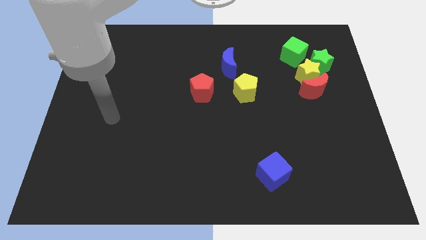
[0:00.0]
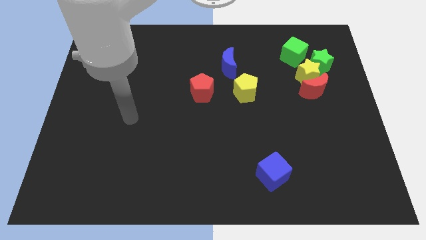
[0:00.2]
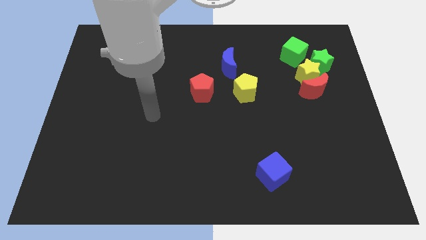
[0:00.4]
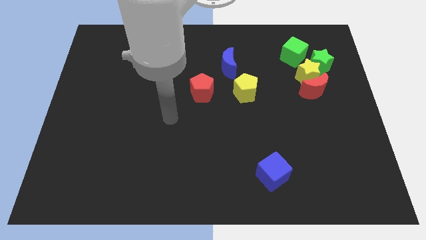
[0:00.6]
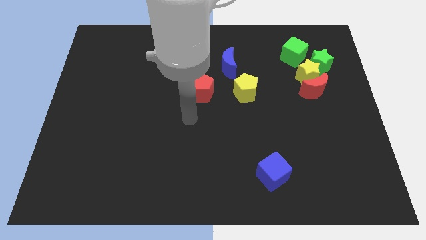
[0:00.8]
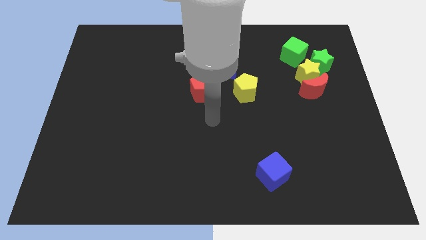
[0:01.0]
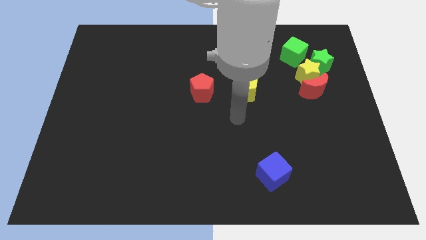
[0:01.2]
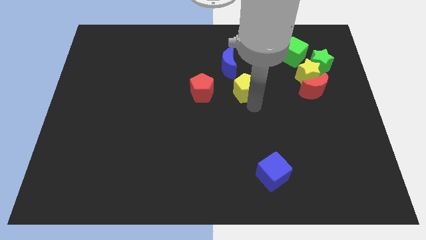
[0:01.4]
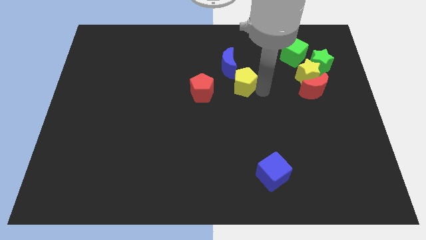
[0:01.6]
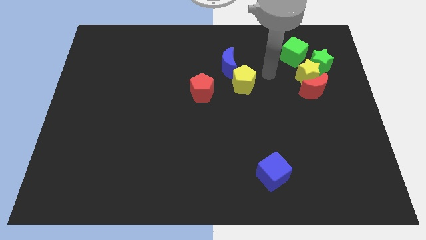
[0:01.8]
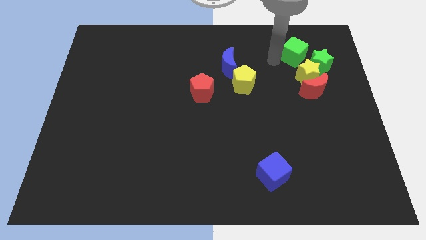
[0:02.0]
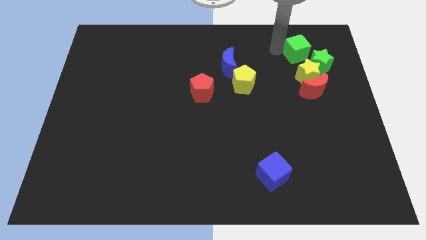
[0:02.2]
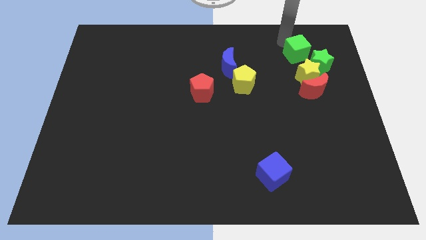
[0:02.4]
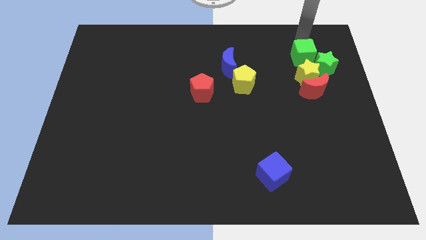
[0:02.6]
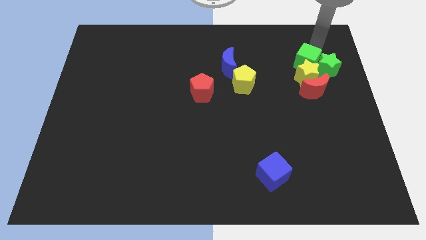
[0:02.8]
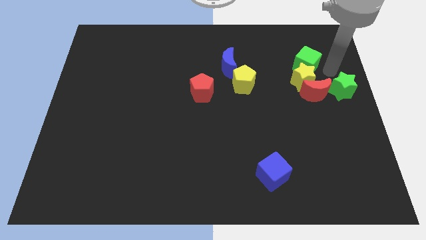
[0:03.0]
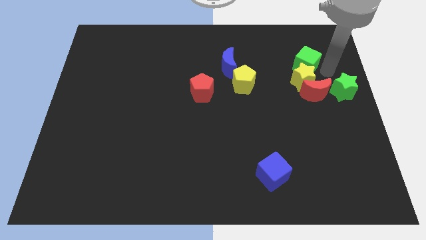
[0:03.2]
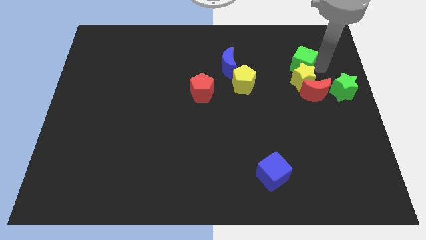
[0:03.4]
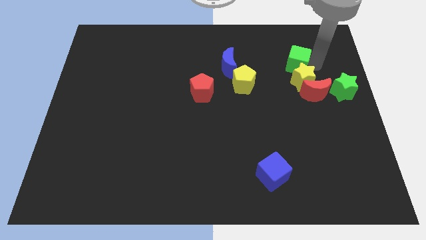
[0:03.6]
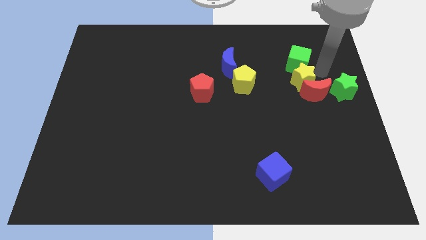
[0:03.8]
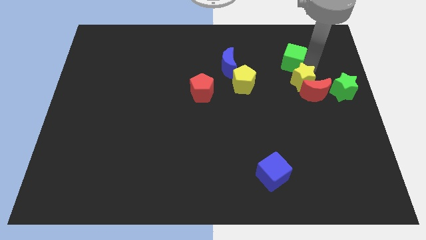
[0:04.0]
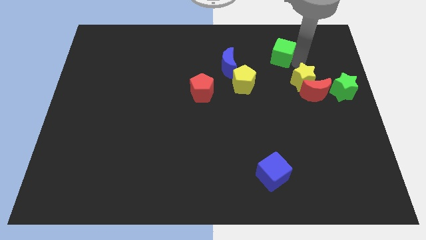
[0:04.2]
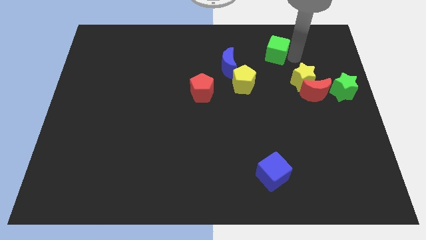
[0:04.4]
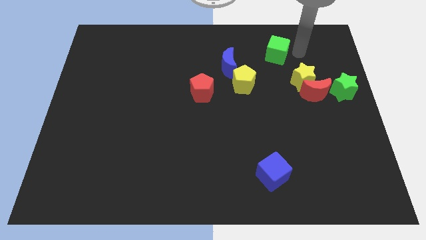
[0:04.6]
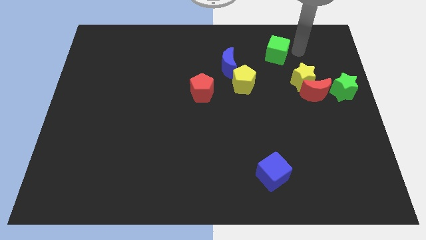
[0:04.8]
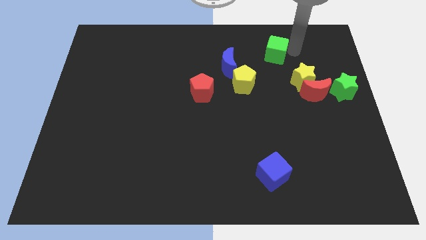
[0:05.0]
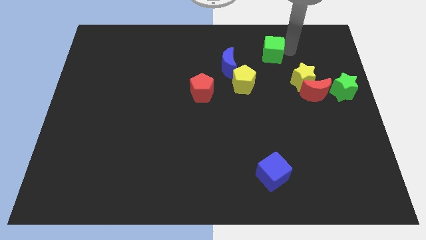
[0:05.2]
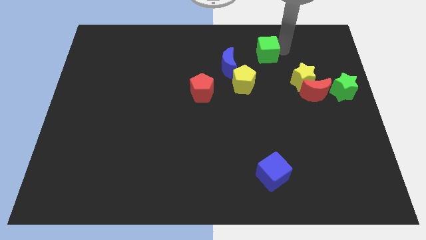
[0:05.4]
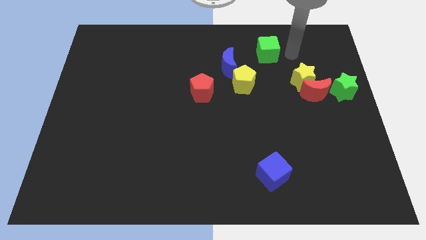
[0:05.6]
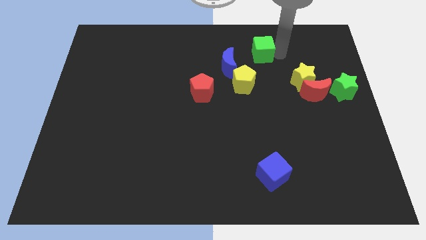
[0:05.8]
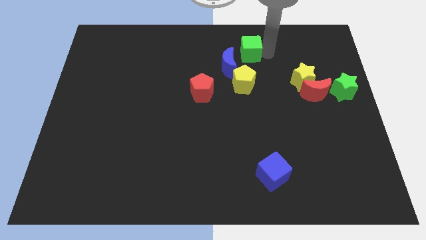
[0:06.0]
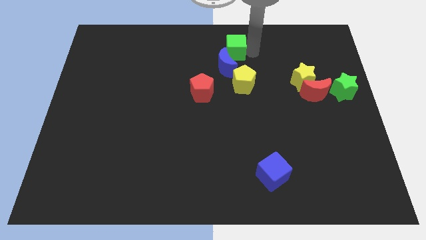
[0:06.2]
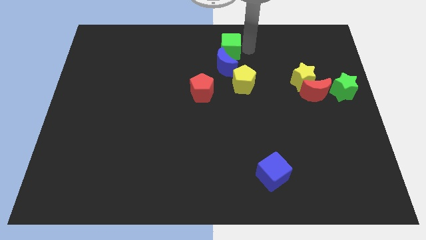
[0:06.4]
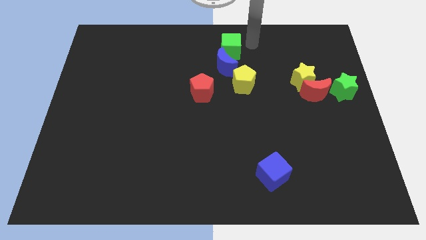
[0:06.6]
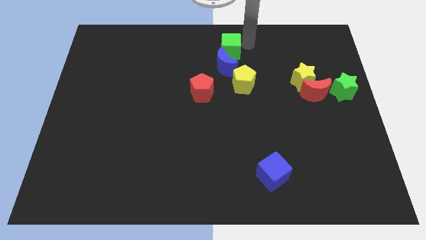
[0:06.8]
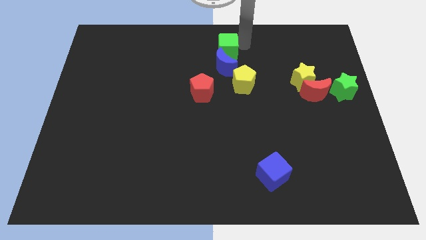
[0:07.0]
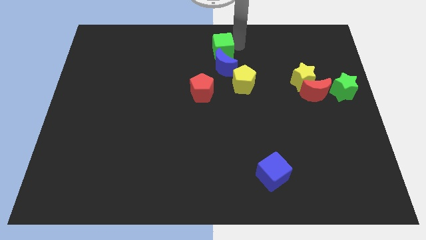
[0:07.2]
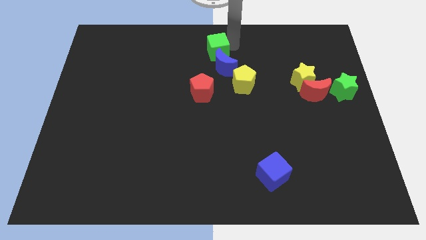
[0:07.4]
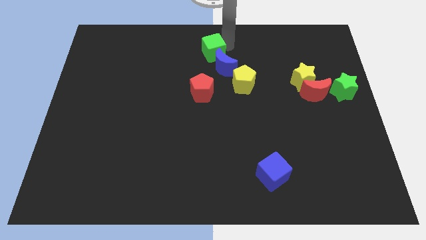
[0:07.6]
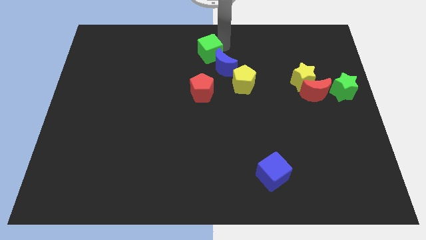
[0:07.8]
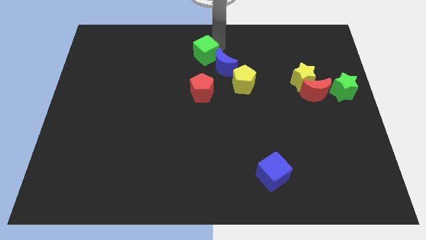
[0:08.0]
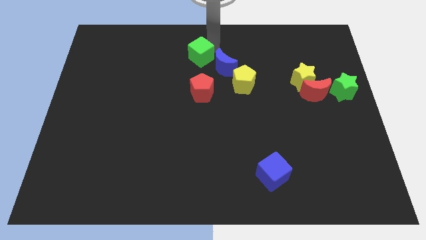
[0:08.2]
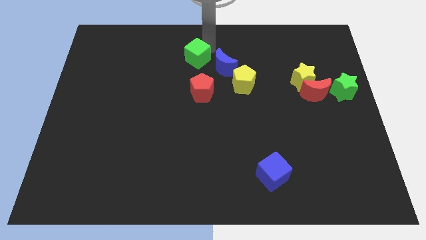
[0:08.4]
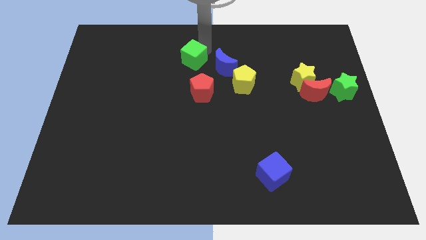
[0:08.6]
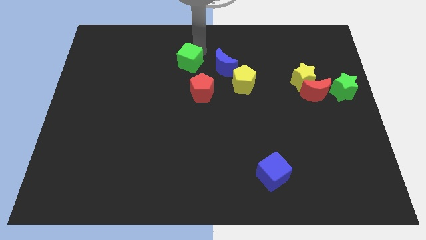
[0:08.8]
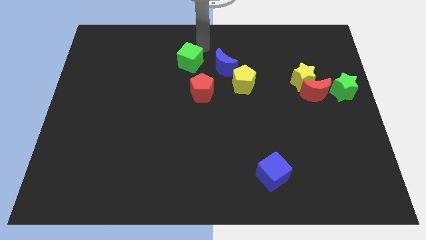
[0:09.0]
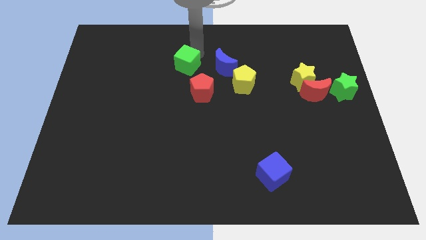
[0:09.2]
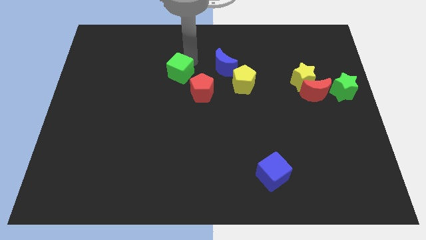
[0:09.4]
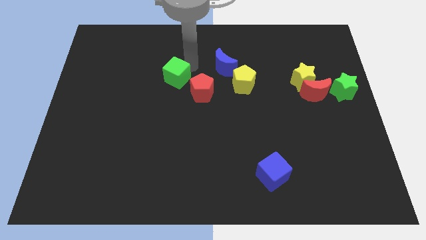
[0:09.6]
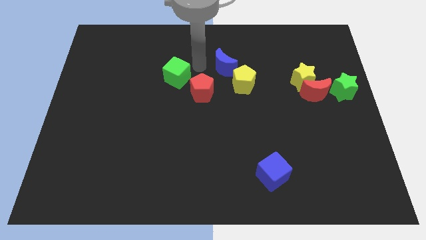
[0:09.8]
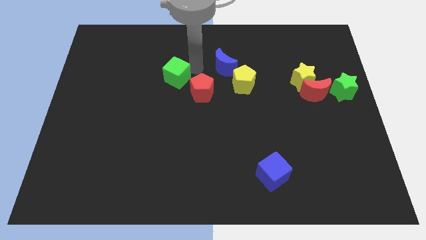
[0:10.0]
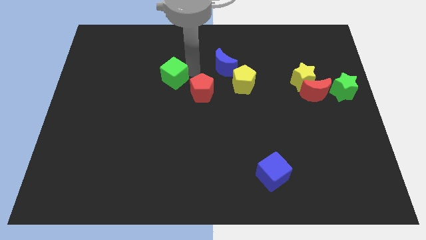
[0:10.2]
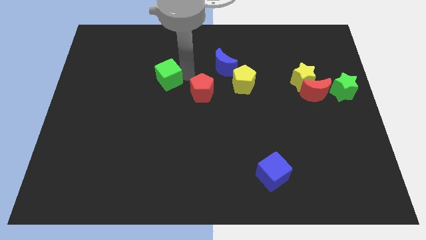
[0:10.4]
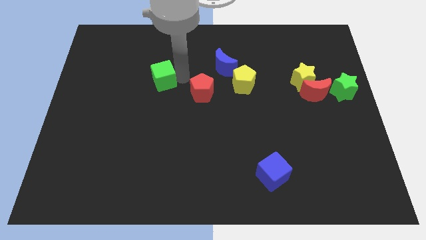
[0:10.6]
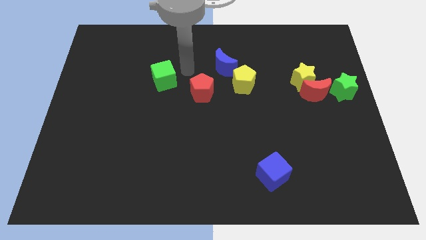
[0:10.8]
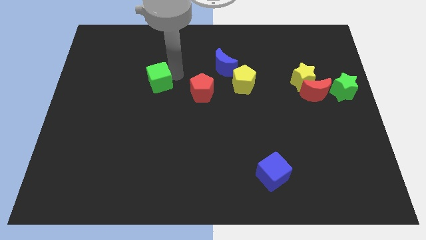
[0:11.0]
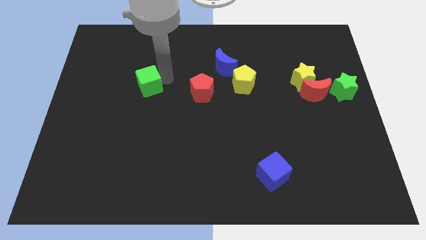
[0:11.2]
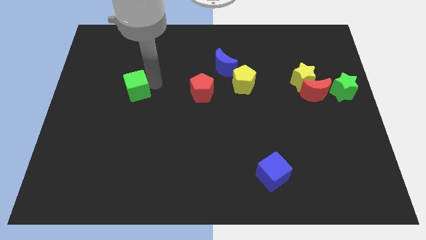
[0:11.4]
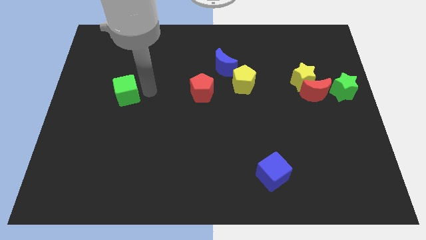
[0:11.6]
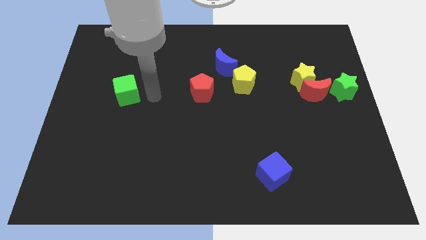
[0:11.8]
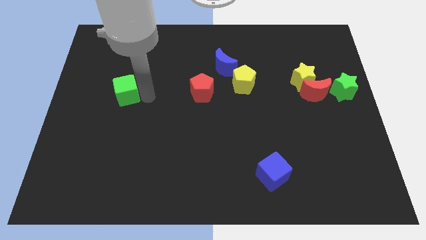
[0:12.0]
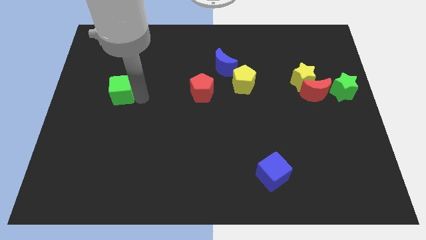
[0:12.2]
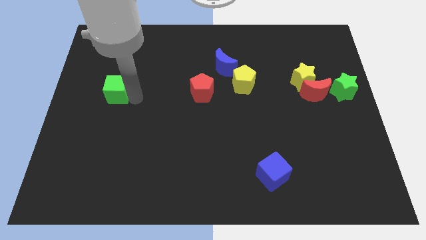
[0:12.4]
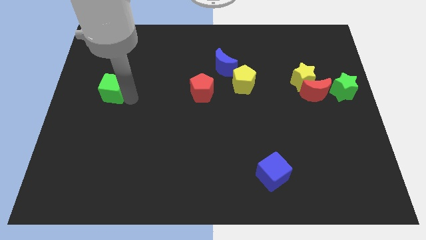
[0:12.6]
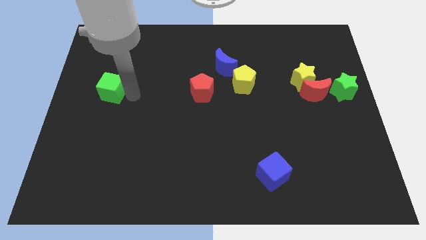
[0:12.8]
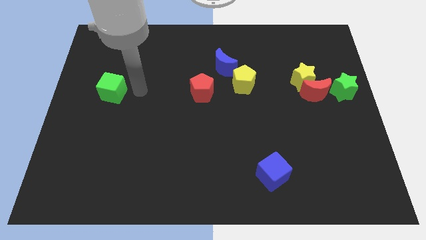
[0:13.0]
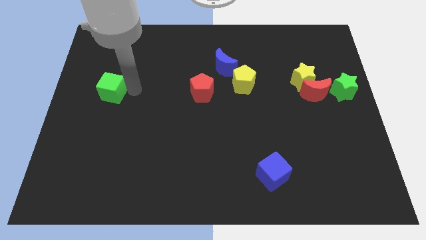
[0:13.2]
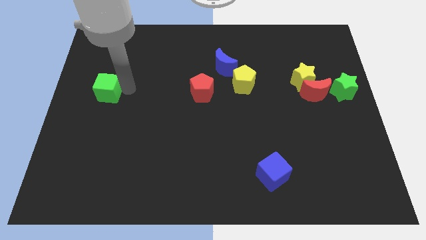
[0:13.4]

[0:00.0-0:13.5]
push the green cube to the center left
